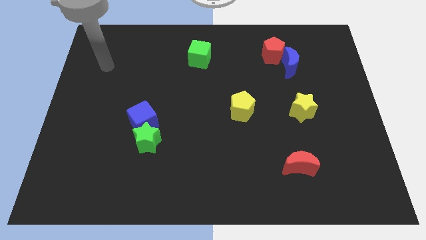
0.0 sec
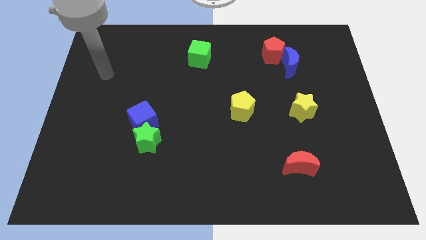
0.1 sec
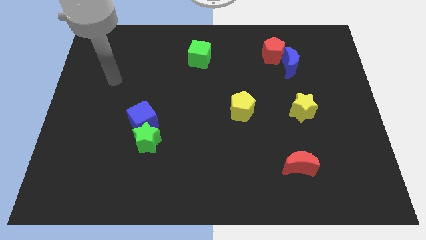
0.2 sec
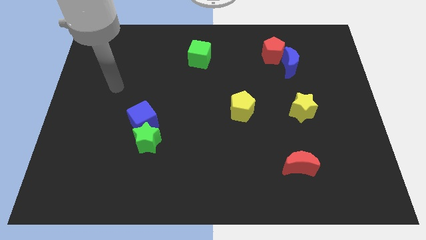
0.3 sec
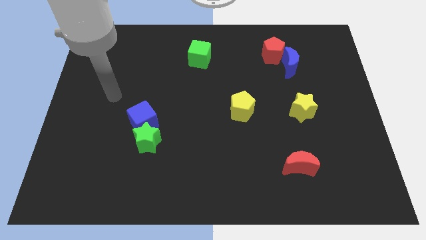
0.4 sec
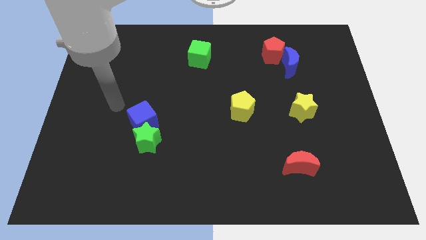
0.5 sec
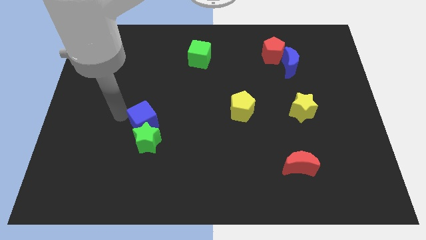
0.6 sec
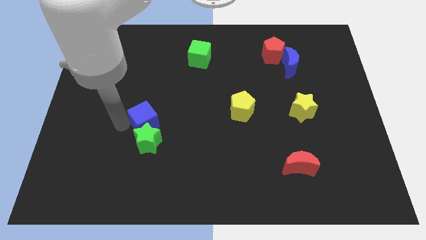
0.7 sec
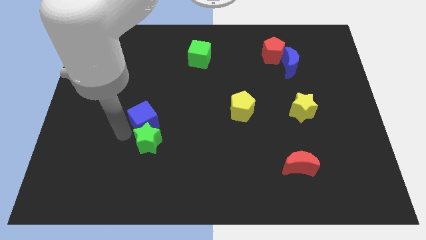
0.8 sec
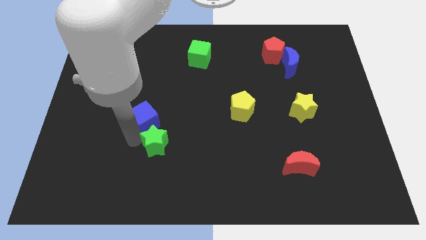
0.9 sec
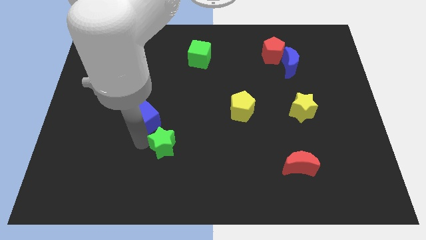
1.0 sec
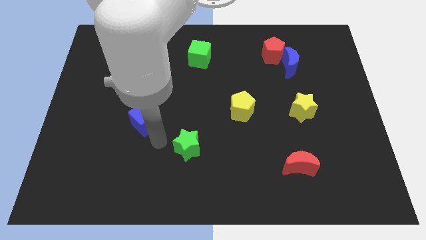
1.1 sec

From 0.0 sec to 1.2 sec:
pull the blue cube apart from the green star

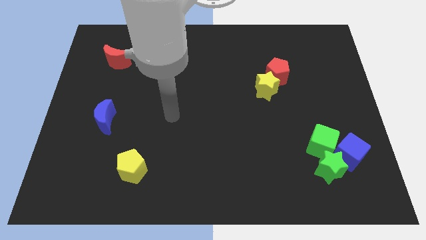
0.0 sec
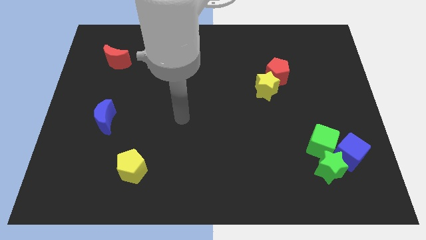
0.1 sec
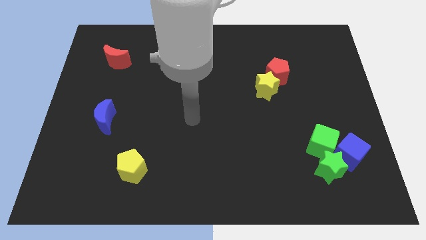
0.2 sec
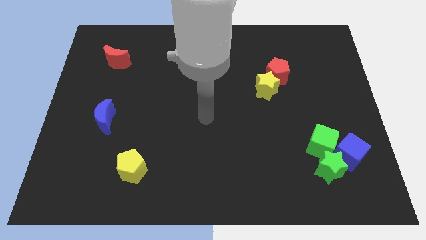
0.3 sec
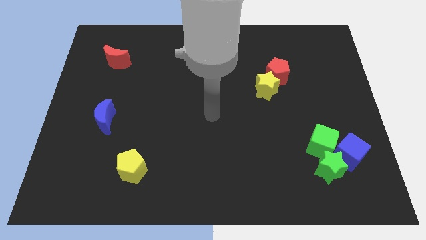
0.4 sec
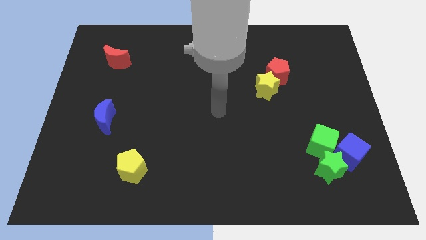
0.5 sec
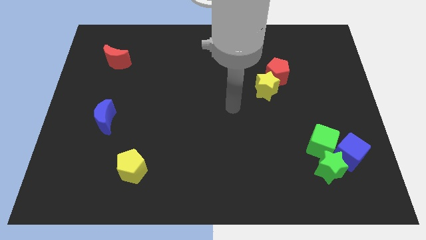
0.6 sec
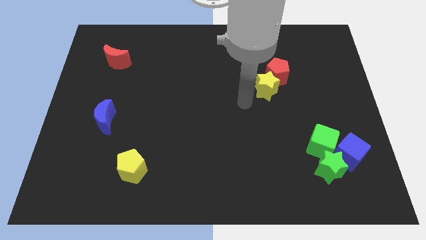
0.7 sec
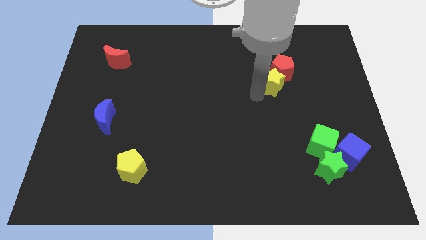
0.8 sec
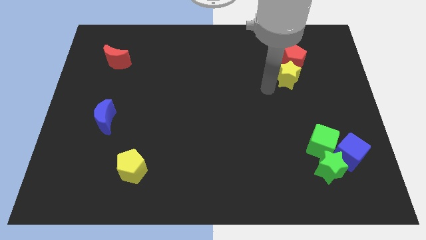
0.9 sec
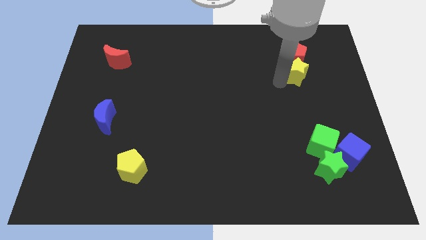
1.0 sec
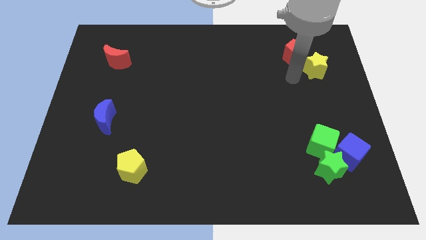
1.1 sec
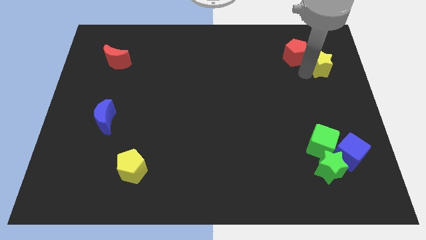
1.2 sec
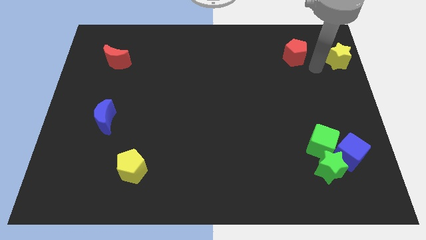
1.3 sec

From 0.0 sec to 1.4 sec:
move the red pentagon away from the yellow star

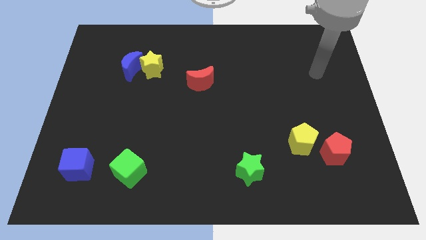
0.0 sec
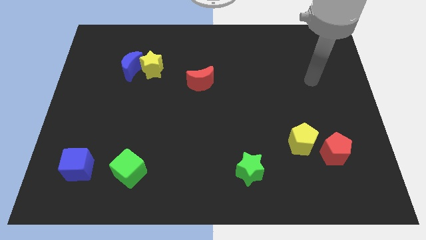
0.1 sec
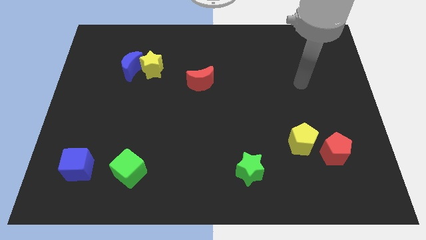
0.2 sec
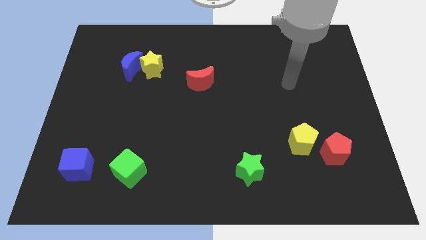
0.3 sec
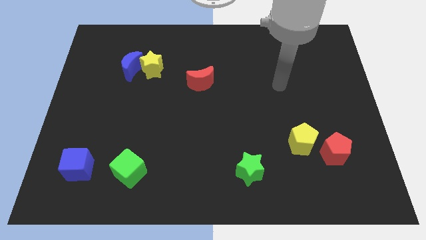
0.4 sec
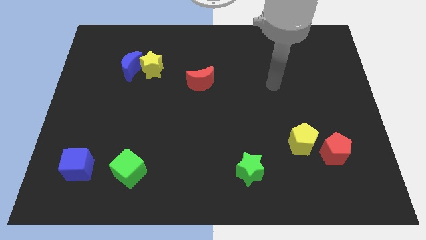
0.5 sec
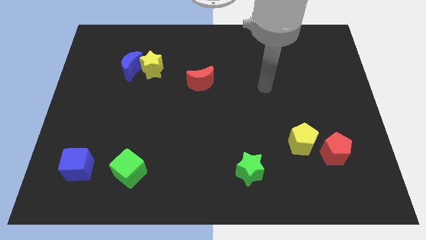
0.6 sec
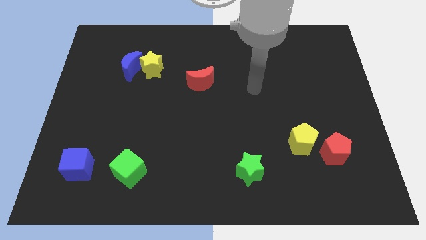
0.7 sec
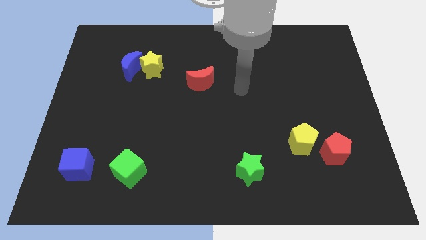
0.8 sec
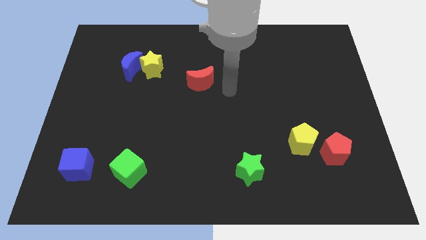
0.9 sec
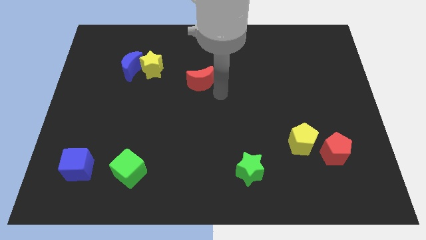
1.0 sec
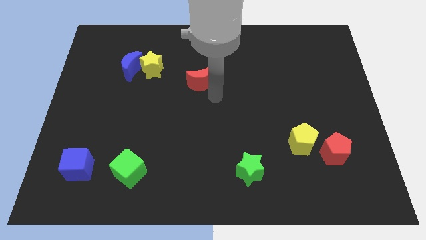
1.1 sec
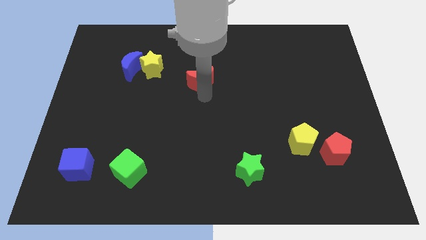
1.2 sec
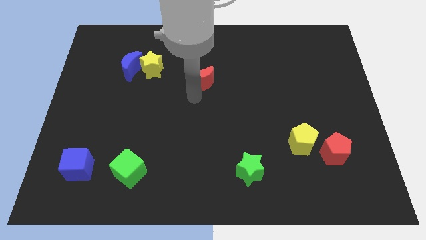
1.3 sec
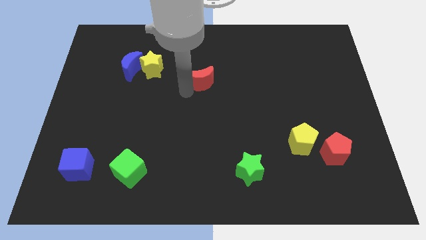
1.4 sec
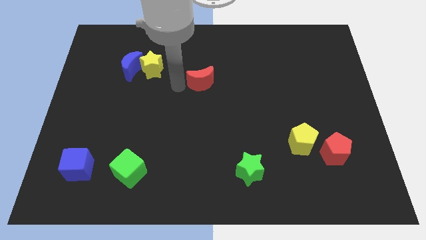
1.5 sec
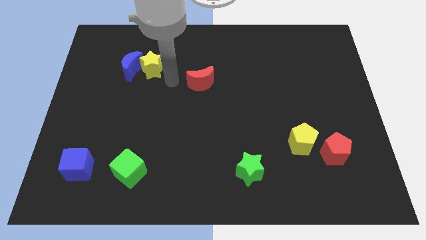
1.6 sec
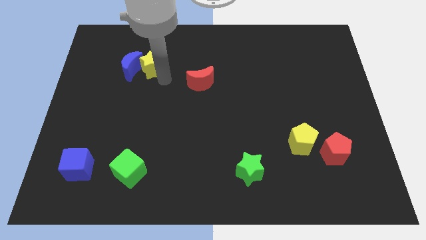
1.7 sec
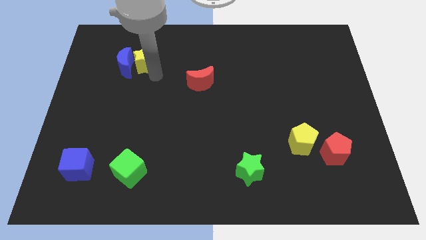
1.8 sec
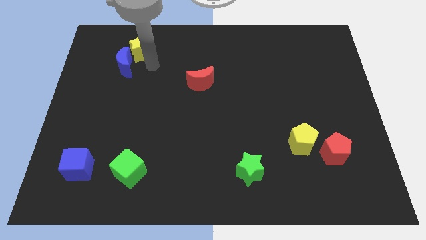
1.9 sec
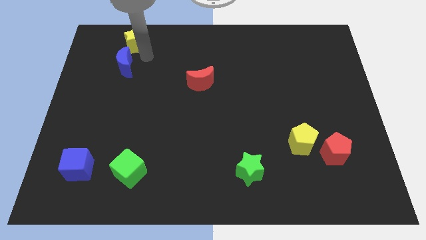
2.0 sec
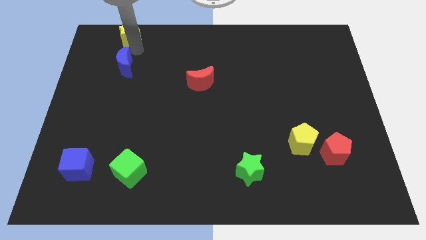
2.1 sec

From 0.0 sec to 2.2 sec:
pull the blue moon apart from the yellow star

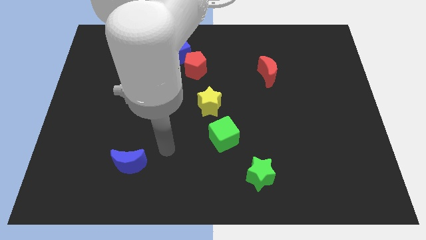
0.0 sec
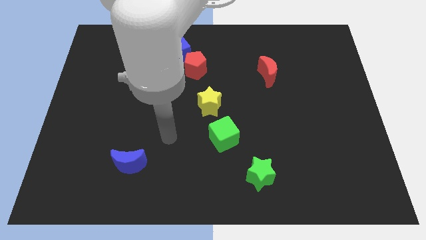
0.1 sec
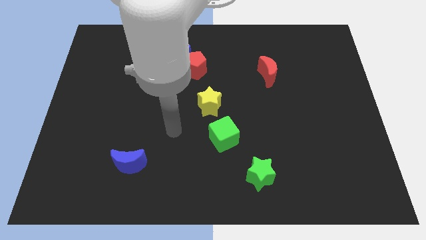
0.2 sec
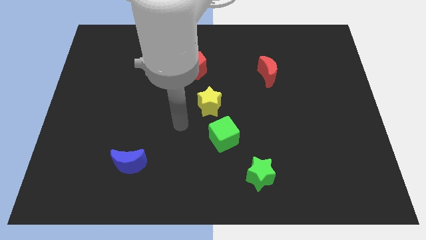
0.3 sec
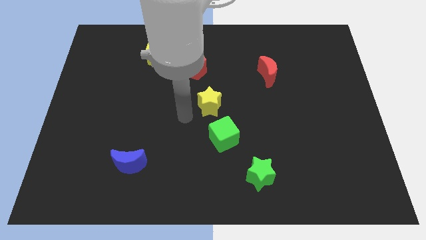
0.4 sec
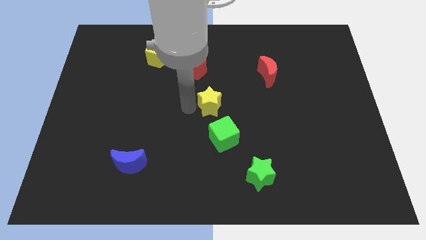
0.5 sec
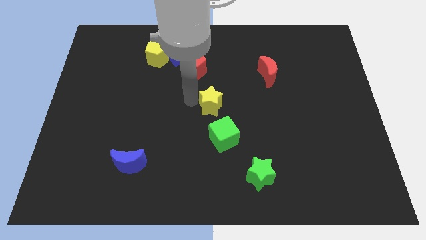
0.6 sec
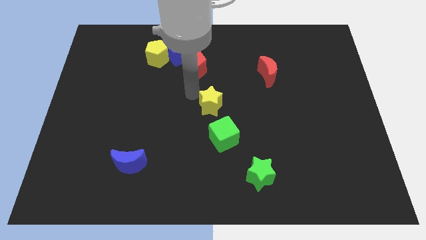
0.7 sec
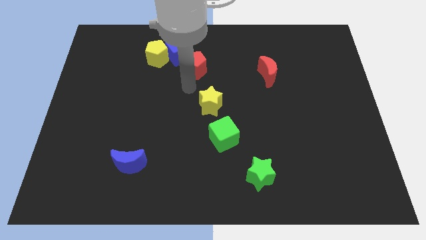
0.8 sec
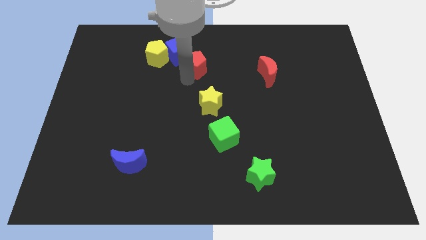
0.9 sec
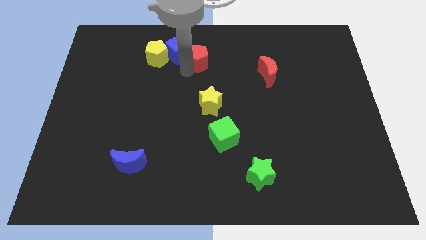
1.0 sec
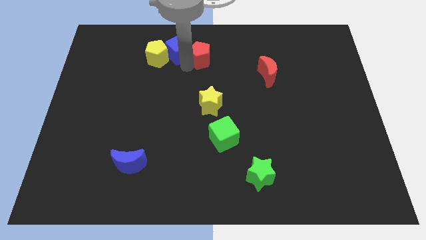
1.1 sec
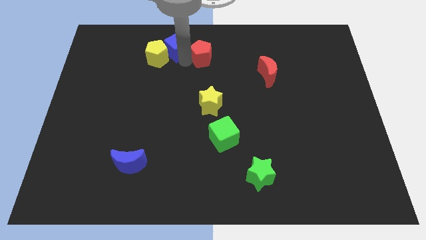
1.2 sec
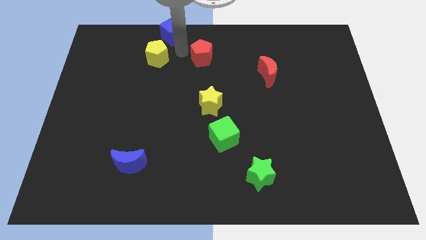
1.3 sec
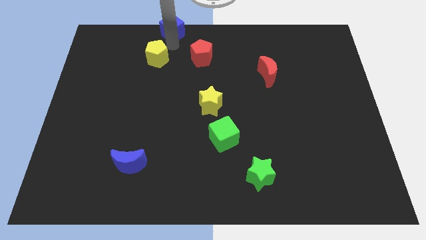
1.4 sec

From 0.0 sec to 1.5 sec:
separate the yellow pentagon from the blue cube

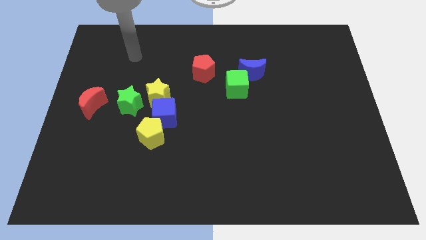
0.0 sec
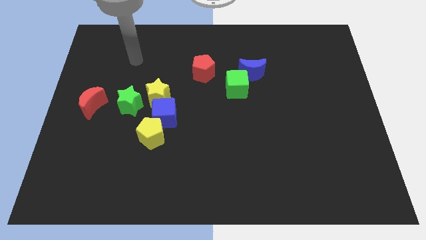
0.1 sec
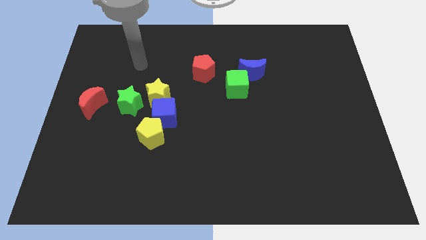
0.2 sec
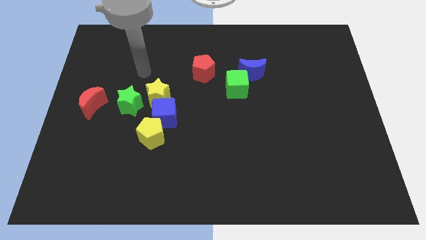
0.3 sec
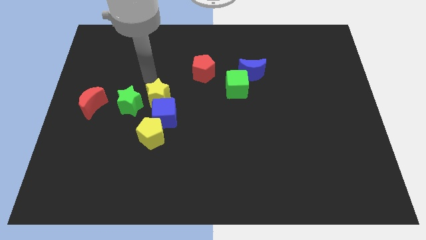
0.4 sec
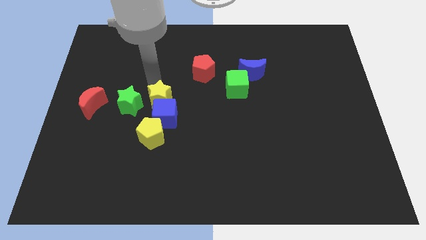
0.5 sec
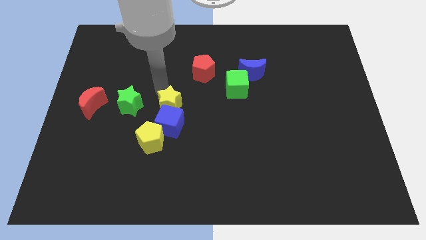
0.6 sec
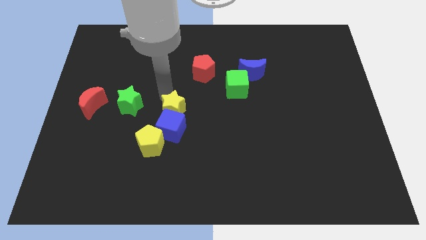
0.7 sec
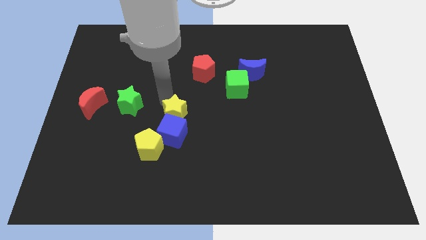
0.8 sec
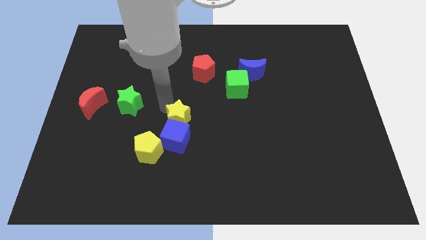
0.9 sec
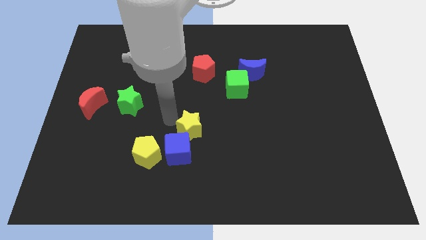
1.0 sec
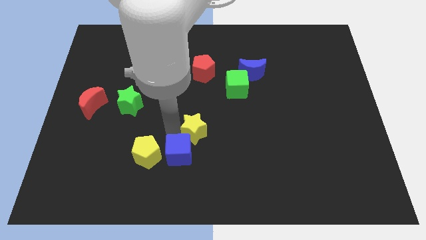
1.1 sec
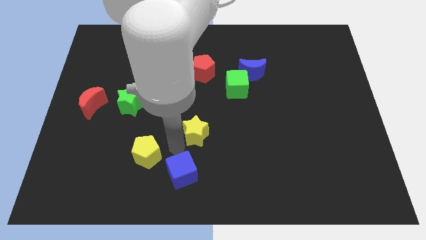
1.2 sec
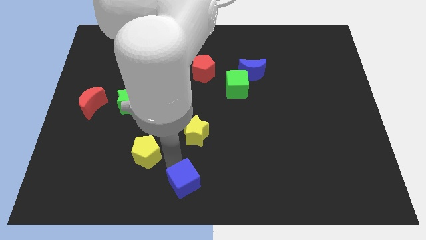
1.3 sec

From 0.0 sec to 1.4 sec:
move the yellow pentagon away from the blue cube

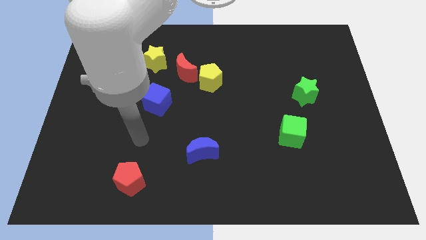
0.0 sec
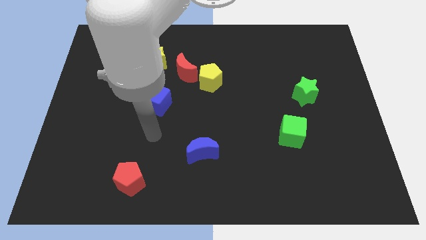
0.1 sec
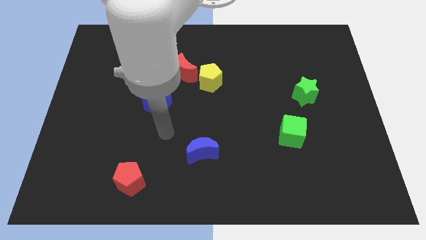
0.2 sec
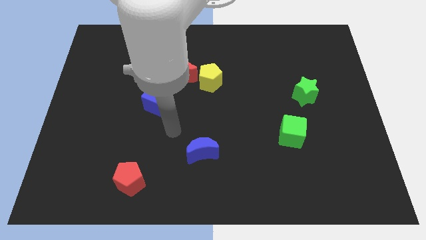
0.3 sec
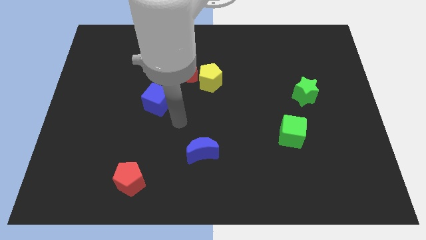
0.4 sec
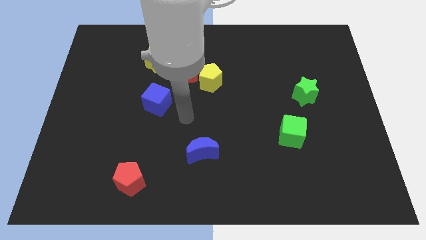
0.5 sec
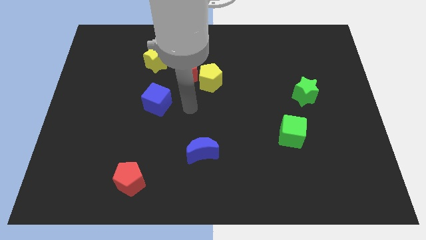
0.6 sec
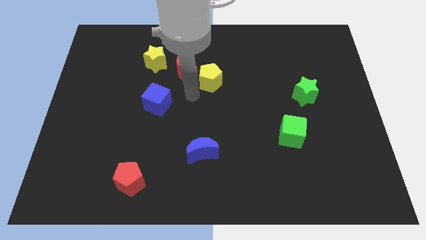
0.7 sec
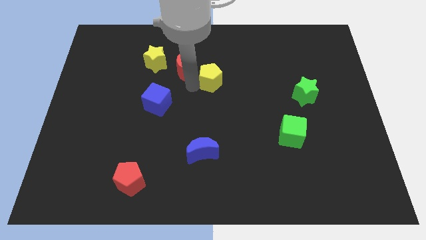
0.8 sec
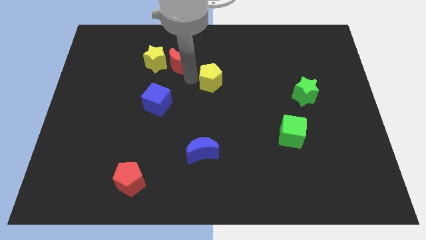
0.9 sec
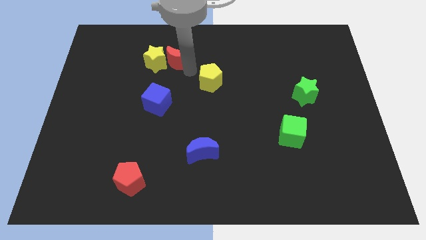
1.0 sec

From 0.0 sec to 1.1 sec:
separate the yellow pentagon from the red moon

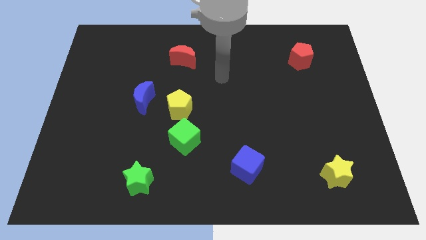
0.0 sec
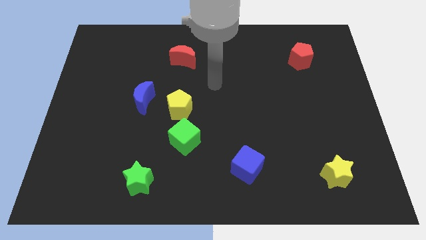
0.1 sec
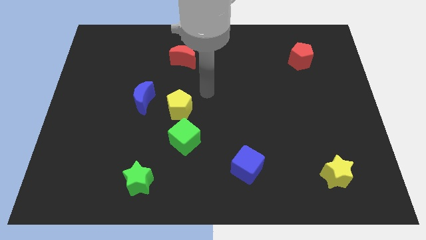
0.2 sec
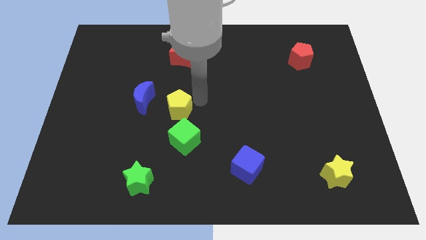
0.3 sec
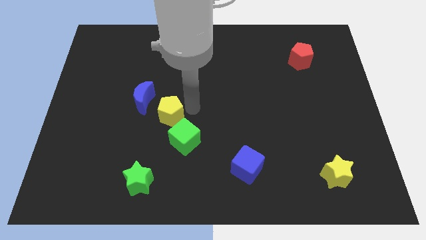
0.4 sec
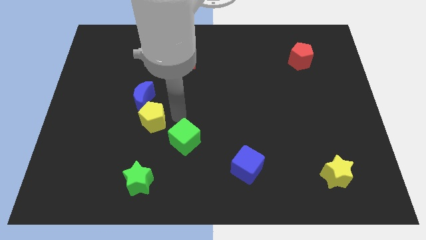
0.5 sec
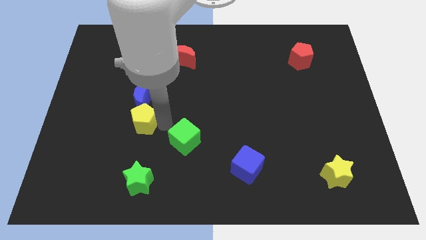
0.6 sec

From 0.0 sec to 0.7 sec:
move the green cube away from the yellow pentagon
